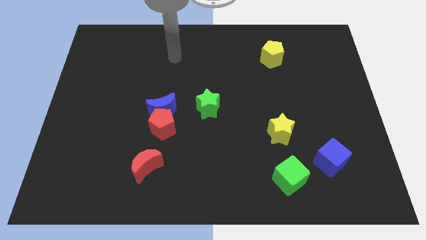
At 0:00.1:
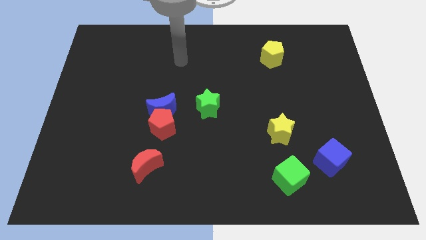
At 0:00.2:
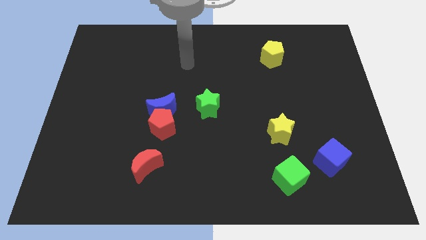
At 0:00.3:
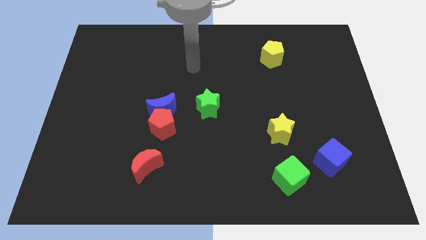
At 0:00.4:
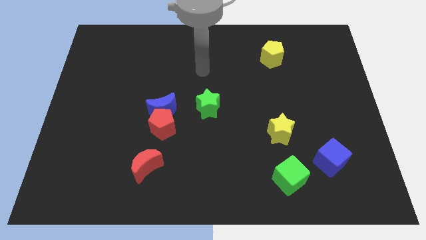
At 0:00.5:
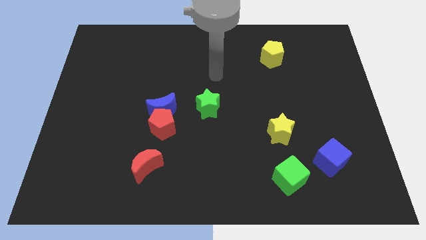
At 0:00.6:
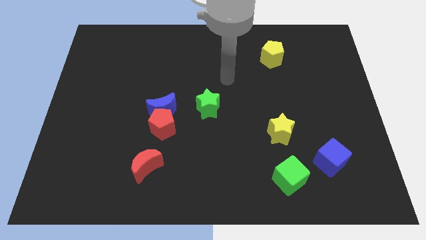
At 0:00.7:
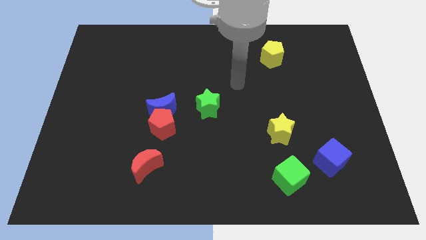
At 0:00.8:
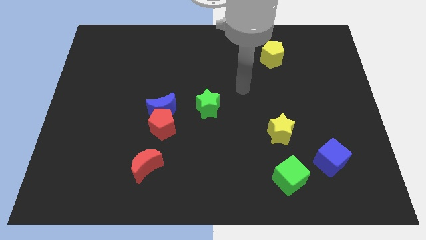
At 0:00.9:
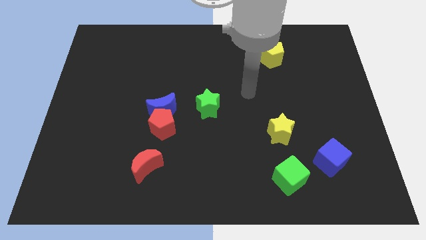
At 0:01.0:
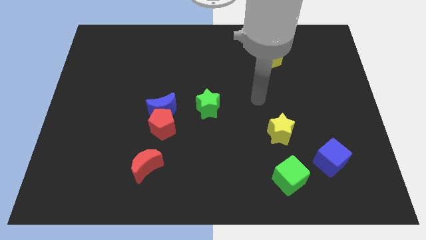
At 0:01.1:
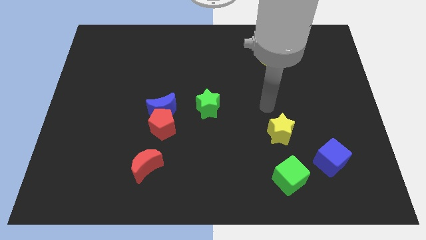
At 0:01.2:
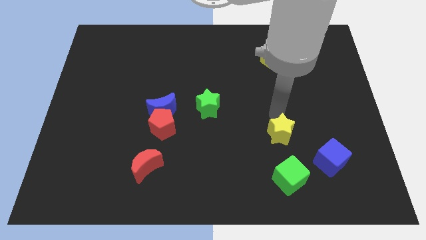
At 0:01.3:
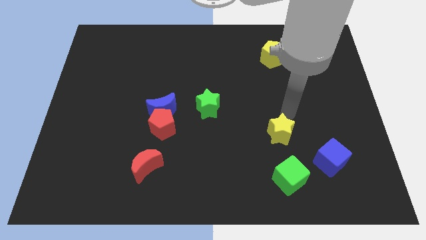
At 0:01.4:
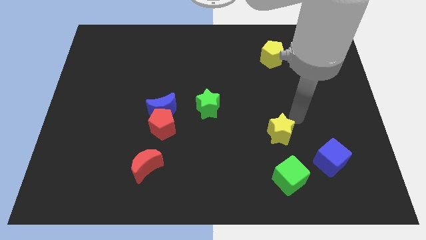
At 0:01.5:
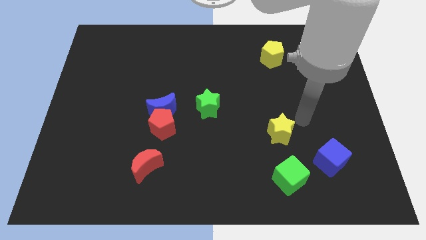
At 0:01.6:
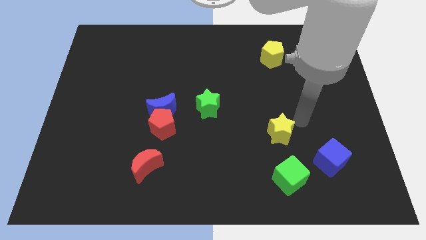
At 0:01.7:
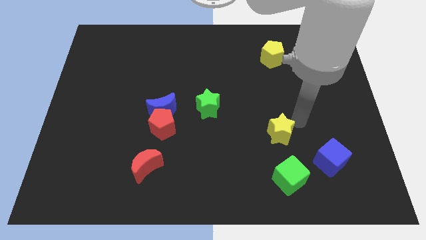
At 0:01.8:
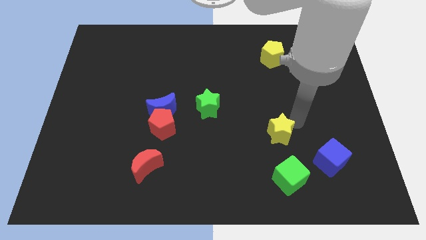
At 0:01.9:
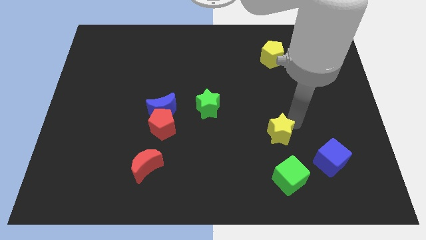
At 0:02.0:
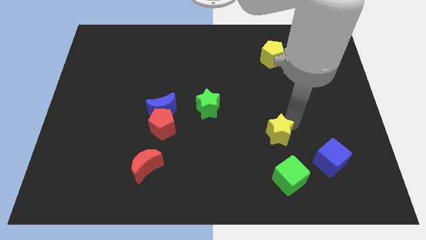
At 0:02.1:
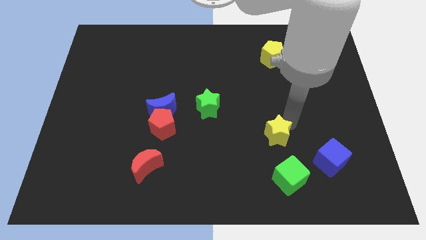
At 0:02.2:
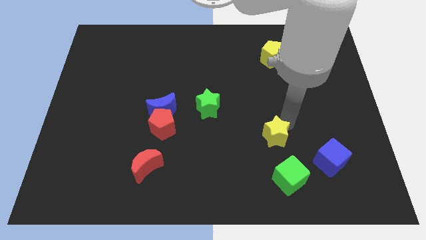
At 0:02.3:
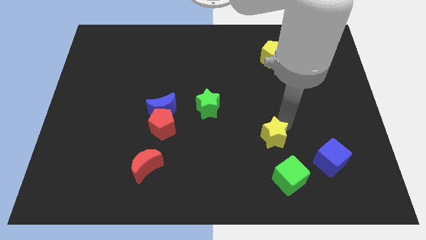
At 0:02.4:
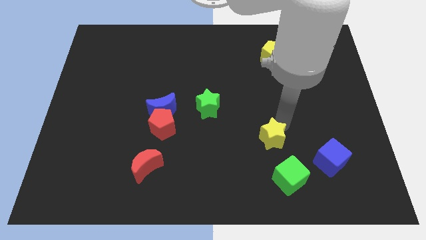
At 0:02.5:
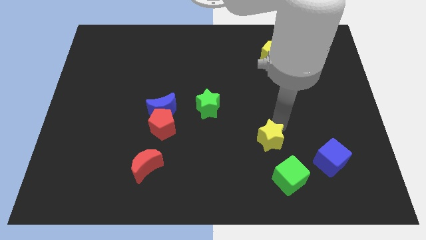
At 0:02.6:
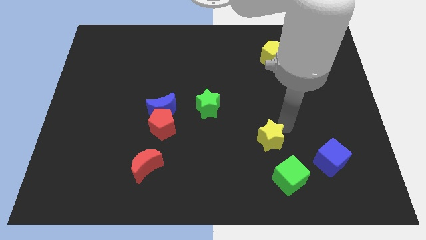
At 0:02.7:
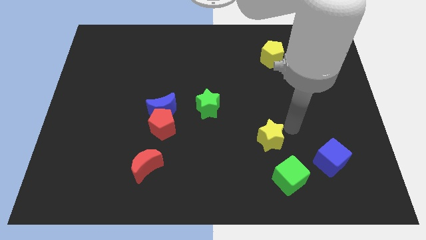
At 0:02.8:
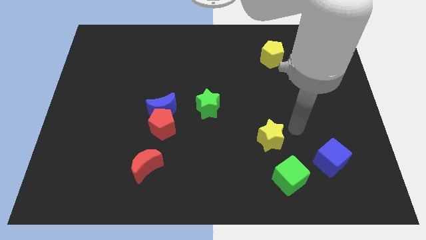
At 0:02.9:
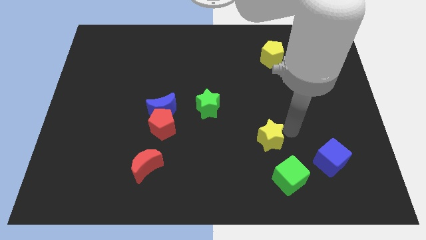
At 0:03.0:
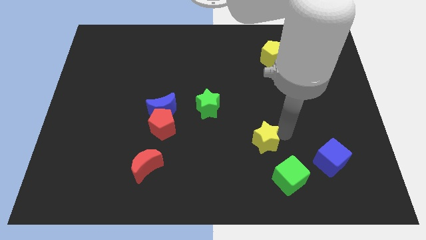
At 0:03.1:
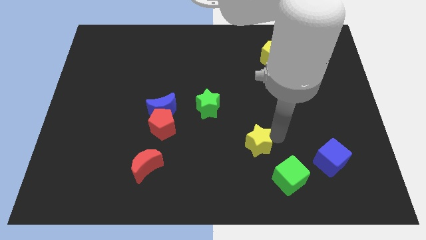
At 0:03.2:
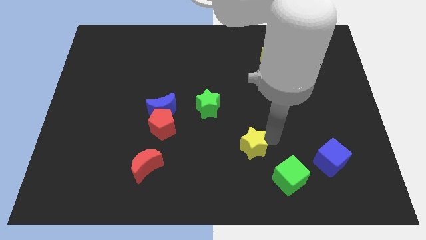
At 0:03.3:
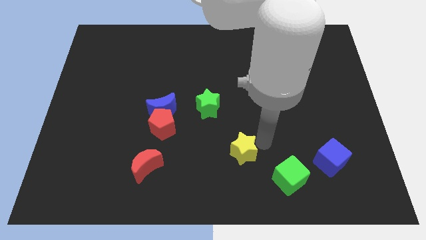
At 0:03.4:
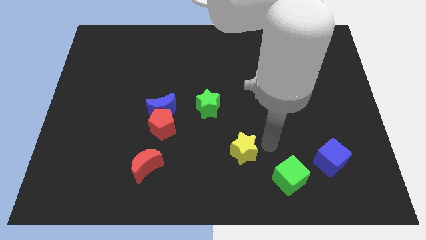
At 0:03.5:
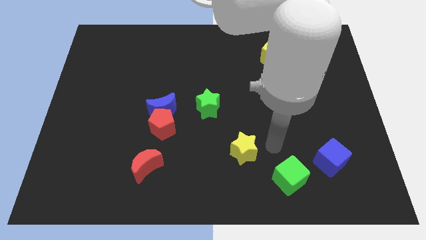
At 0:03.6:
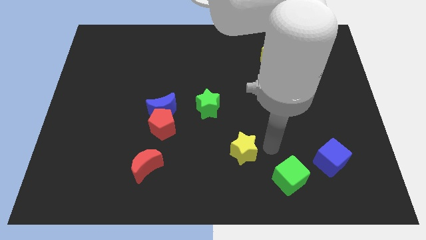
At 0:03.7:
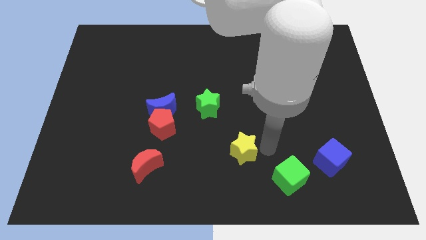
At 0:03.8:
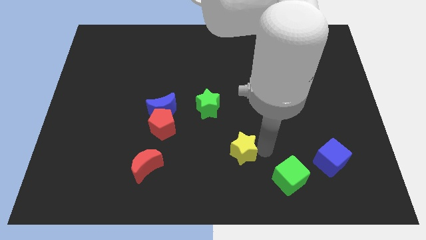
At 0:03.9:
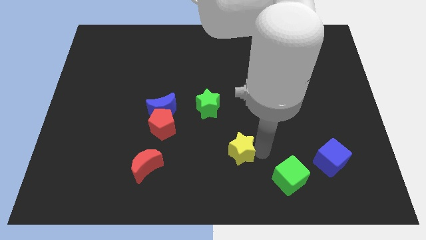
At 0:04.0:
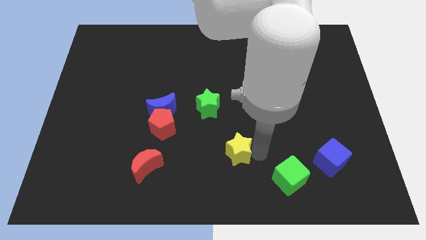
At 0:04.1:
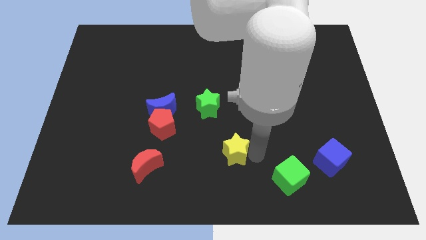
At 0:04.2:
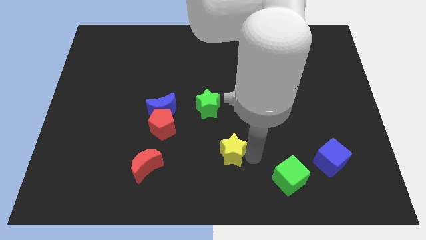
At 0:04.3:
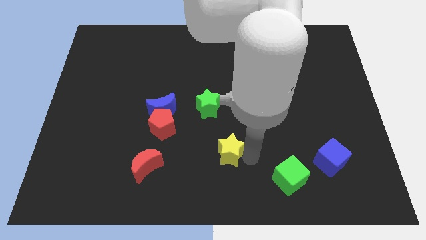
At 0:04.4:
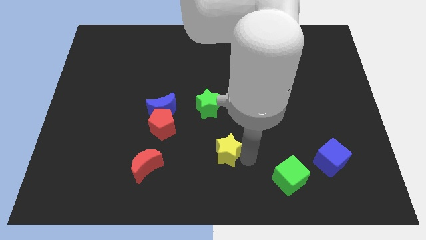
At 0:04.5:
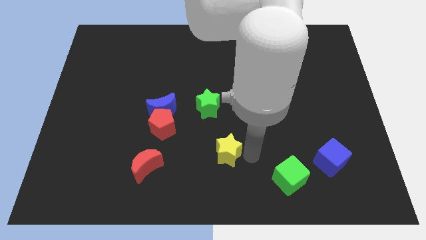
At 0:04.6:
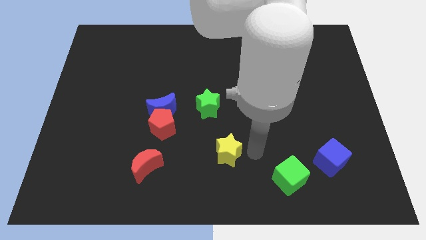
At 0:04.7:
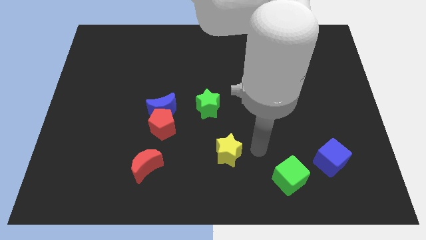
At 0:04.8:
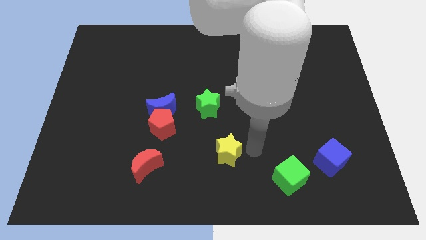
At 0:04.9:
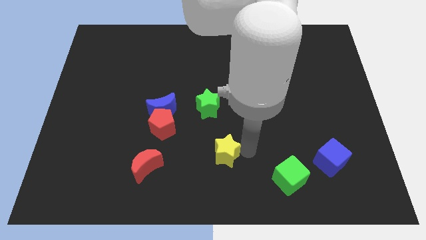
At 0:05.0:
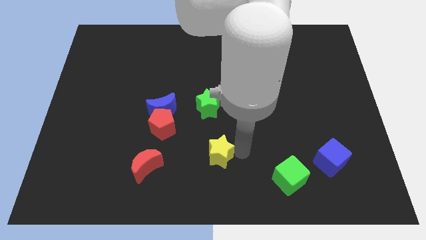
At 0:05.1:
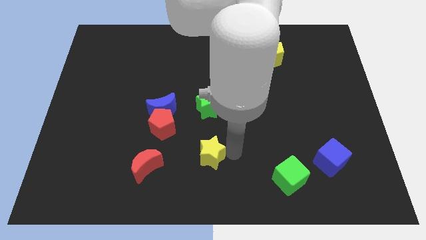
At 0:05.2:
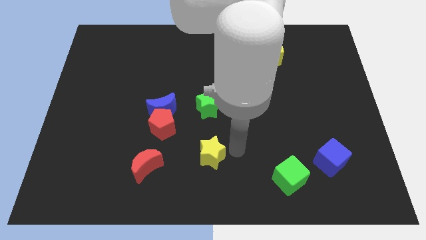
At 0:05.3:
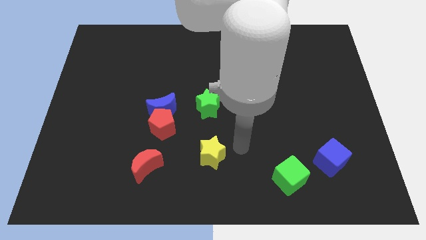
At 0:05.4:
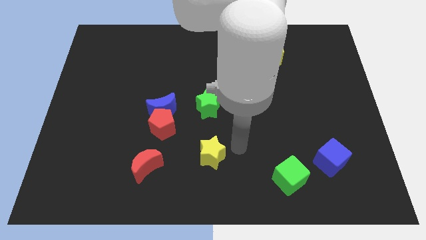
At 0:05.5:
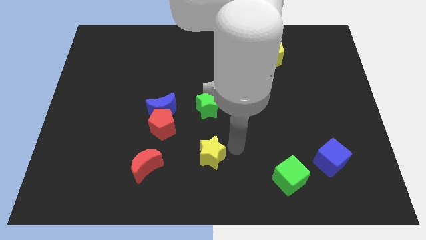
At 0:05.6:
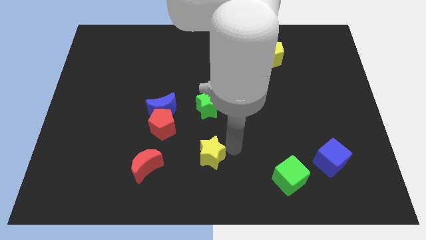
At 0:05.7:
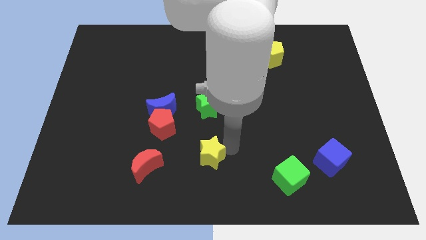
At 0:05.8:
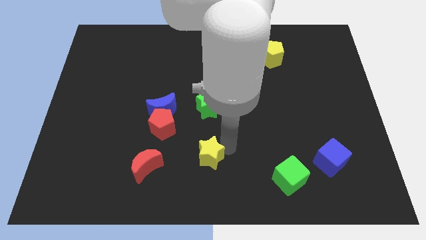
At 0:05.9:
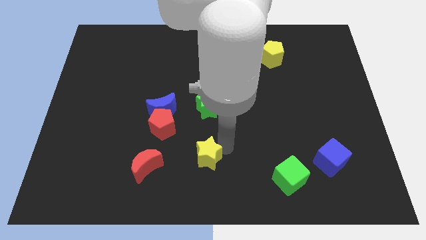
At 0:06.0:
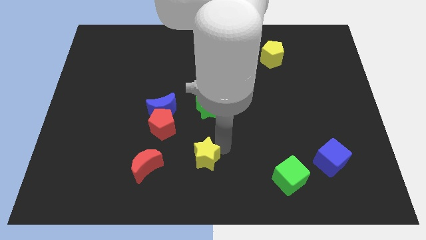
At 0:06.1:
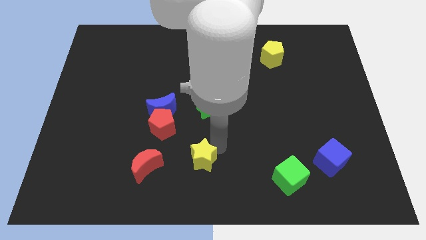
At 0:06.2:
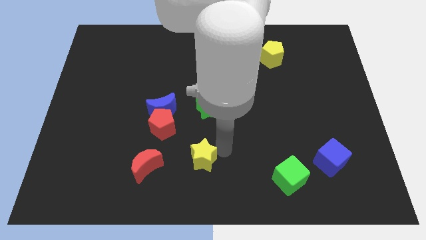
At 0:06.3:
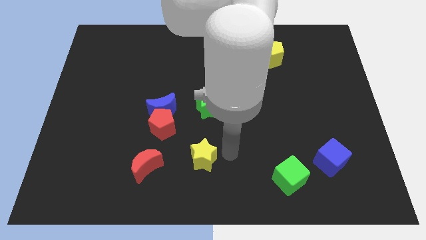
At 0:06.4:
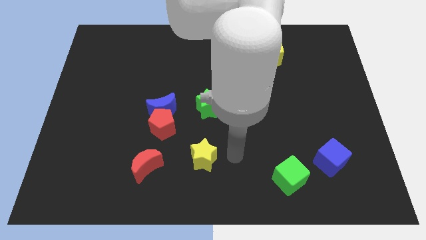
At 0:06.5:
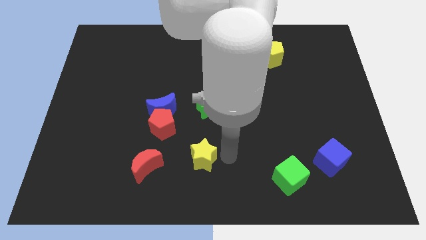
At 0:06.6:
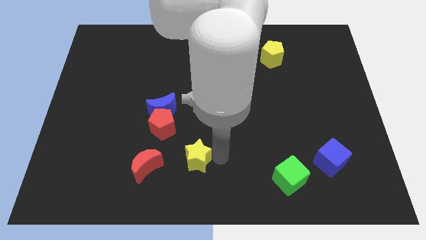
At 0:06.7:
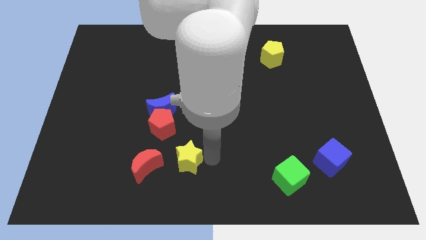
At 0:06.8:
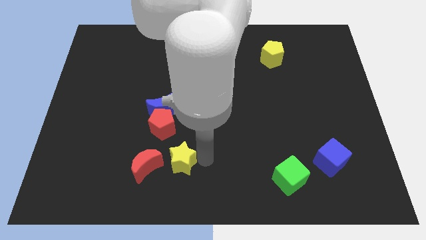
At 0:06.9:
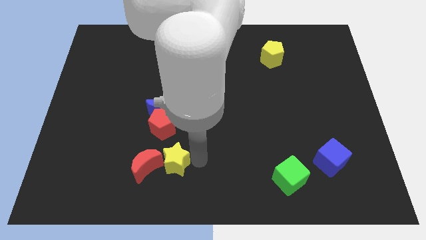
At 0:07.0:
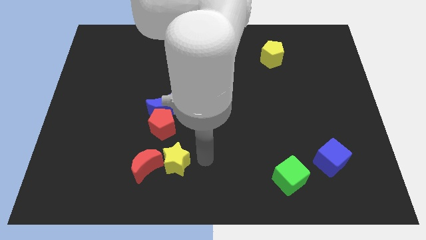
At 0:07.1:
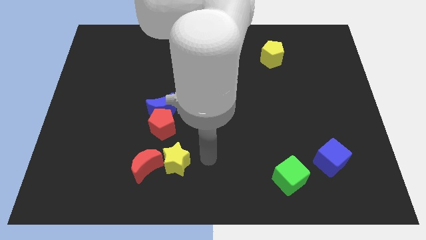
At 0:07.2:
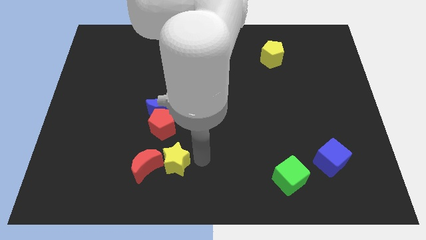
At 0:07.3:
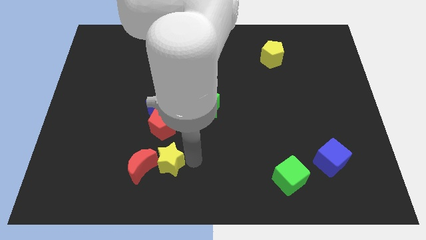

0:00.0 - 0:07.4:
push the yellow star to the red moon

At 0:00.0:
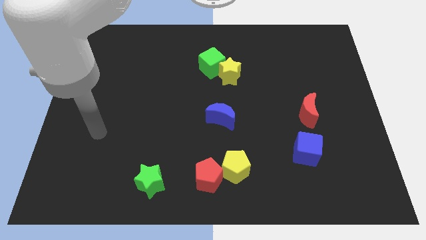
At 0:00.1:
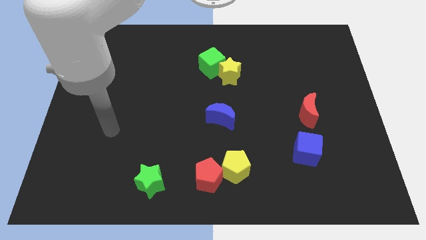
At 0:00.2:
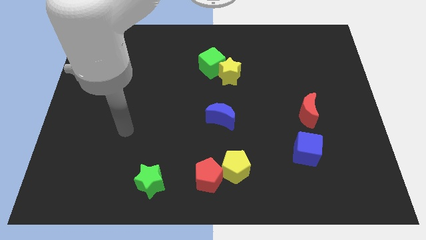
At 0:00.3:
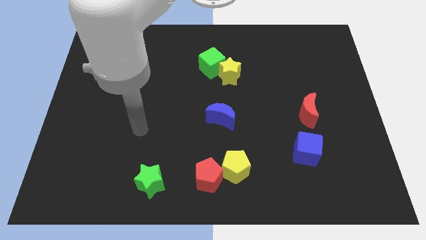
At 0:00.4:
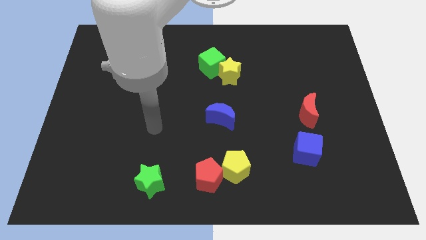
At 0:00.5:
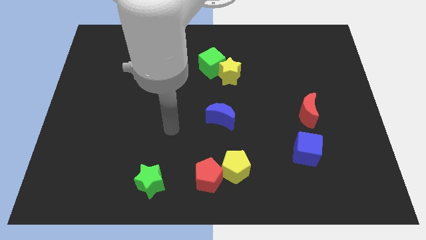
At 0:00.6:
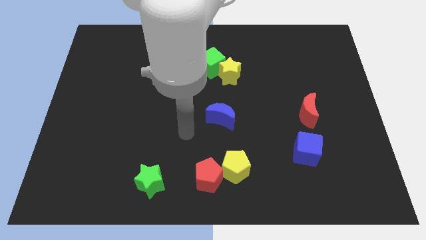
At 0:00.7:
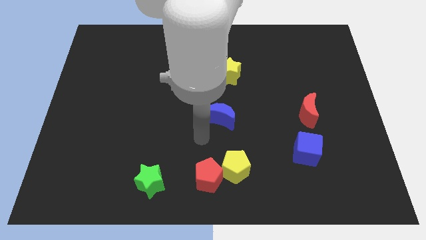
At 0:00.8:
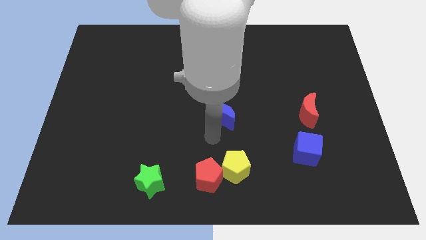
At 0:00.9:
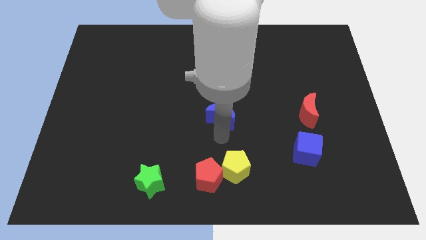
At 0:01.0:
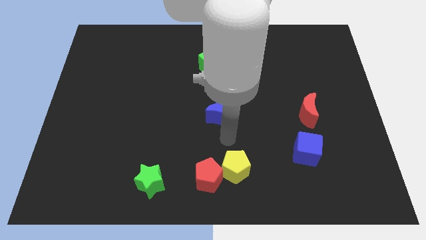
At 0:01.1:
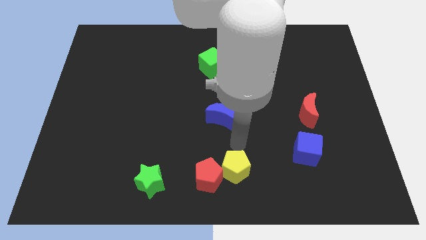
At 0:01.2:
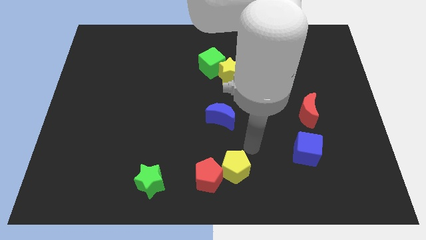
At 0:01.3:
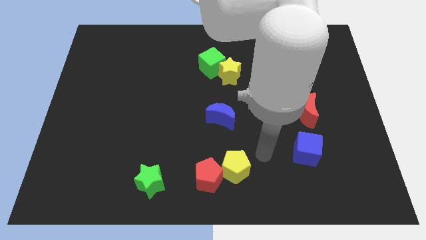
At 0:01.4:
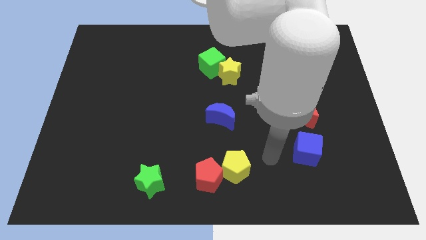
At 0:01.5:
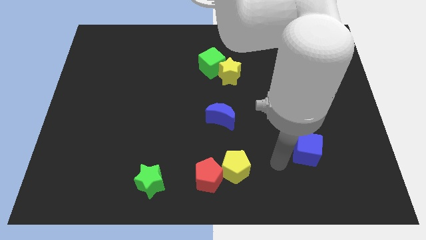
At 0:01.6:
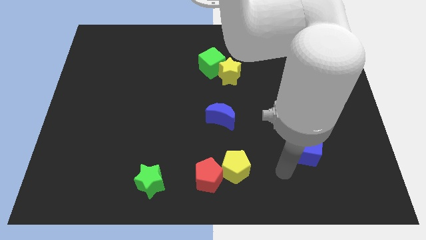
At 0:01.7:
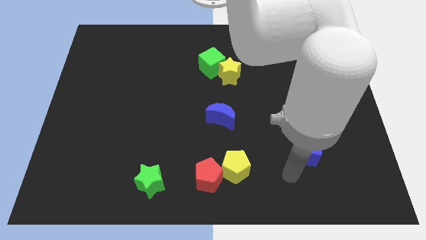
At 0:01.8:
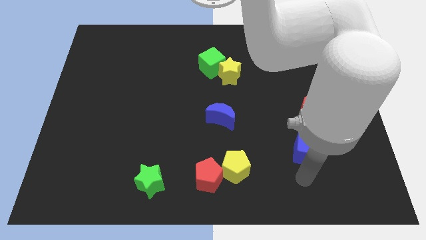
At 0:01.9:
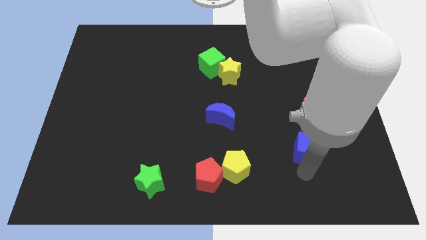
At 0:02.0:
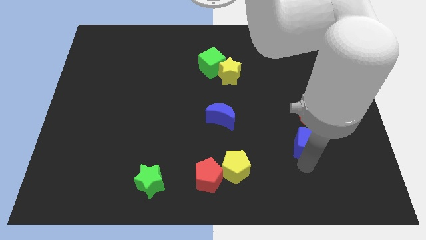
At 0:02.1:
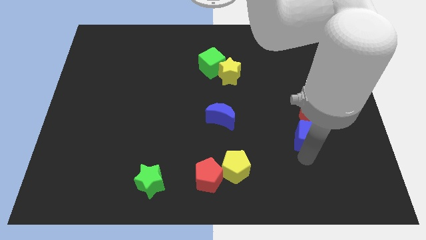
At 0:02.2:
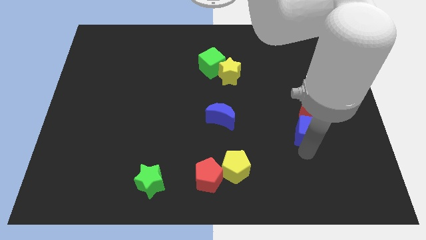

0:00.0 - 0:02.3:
push the blue cube to the red moon
